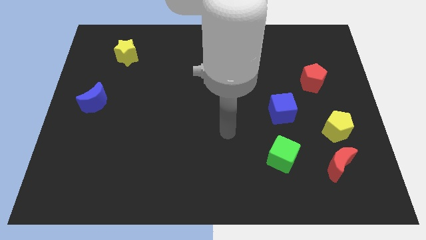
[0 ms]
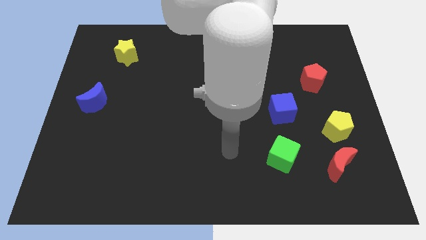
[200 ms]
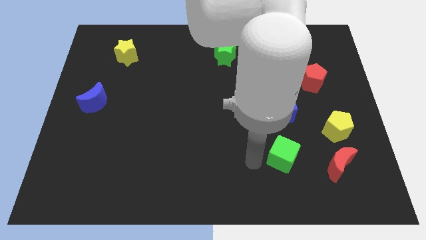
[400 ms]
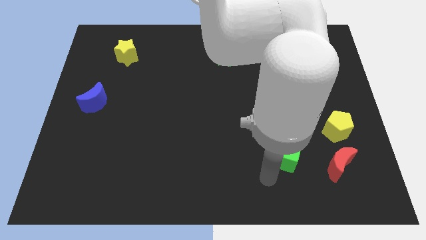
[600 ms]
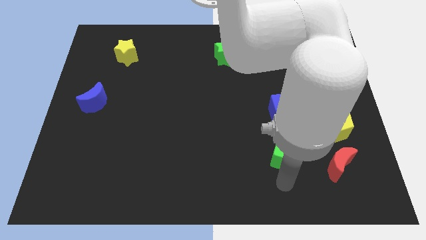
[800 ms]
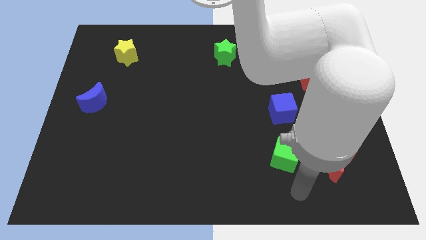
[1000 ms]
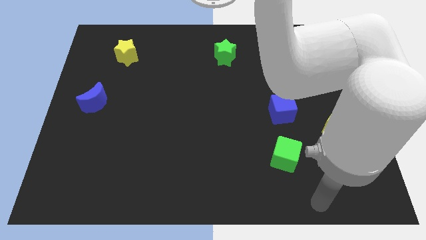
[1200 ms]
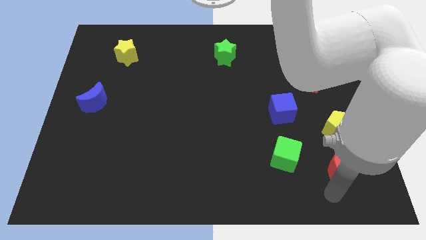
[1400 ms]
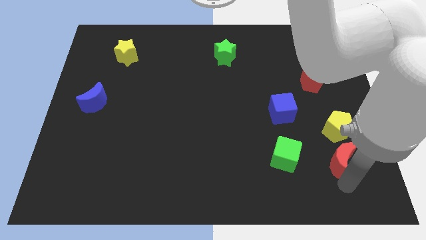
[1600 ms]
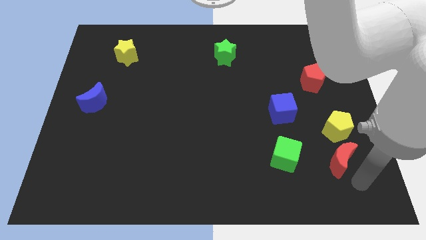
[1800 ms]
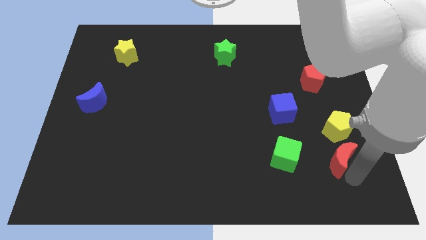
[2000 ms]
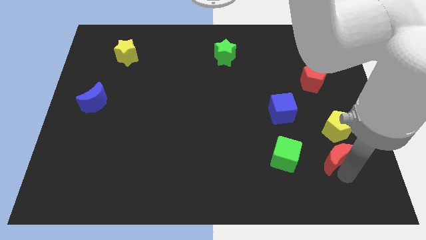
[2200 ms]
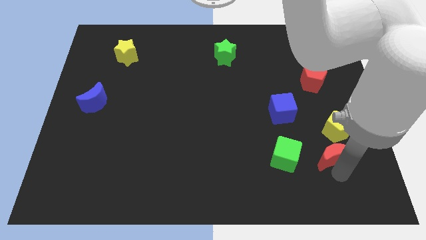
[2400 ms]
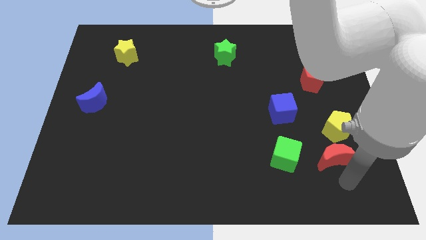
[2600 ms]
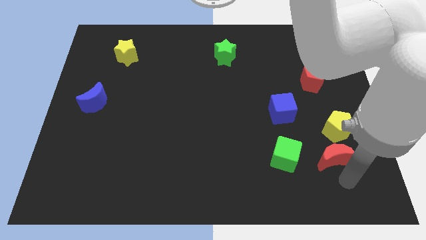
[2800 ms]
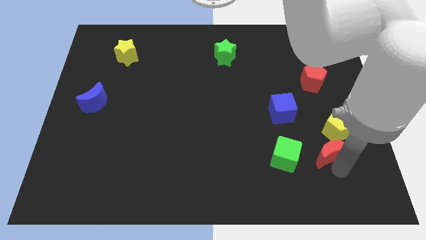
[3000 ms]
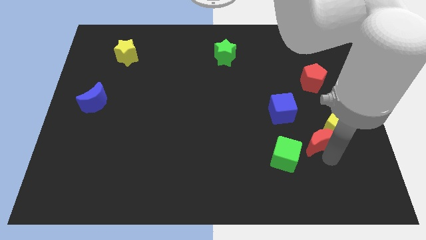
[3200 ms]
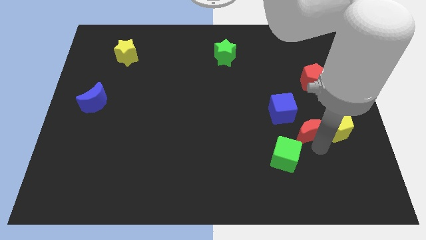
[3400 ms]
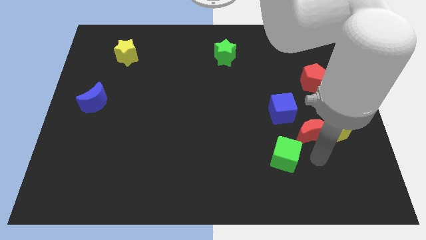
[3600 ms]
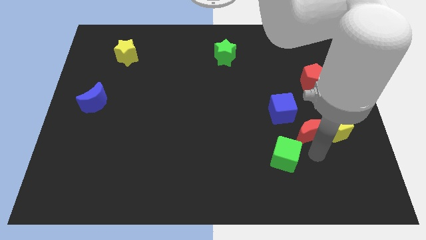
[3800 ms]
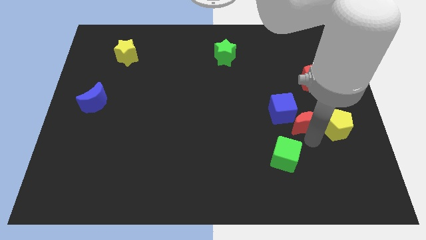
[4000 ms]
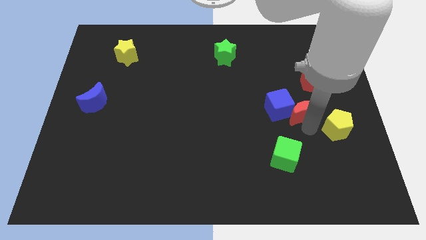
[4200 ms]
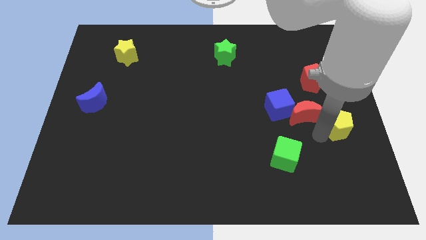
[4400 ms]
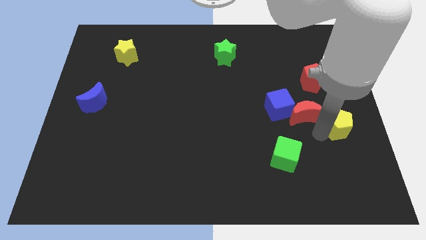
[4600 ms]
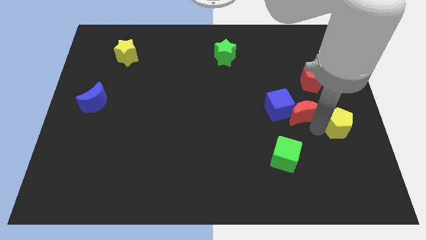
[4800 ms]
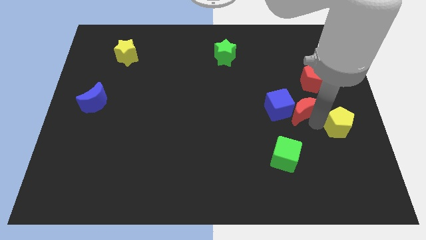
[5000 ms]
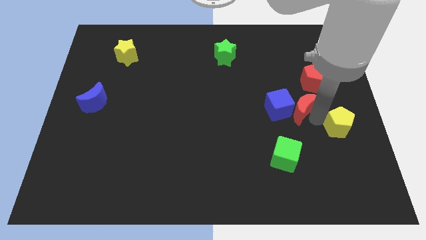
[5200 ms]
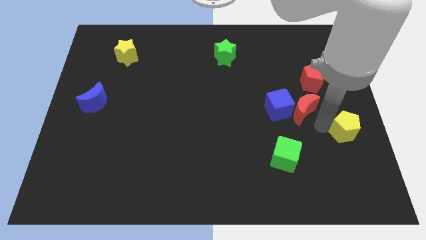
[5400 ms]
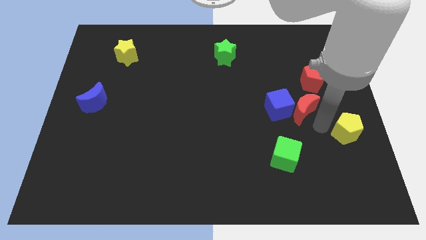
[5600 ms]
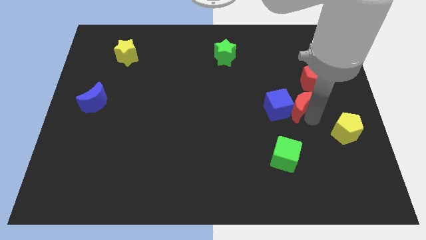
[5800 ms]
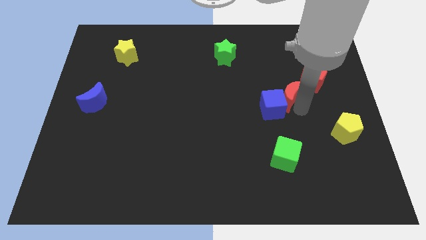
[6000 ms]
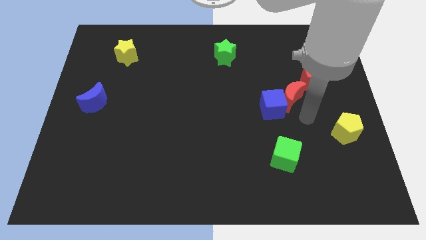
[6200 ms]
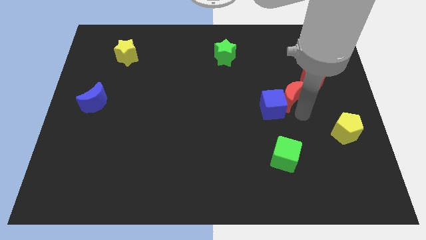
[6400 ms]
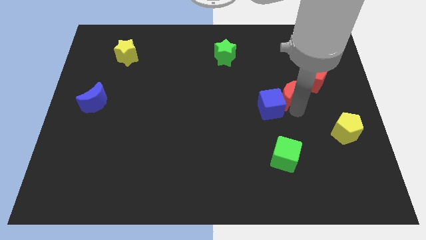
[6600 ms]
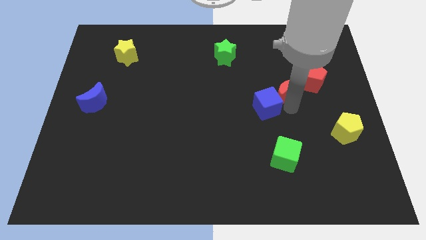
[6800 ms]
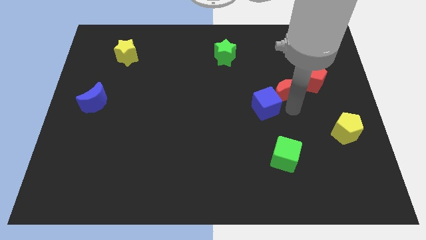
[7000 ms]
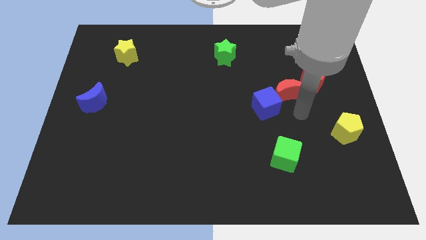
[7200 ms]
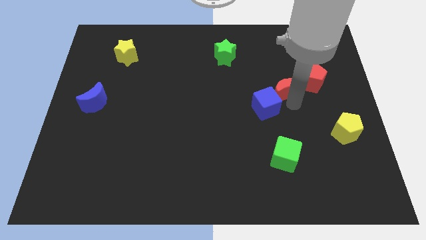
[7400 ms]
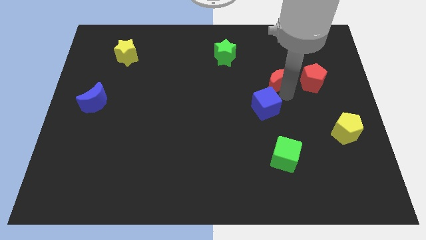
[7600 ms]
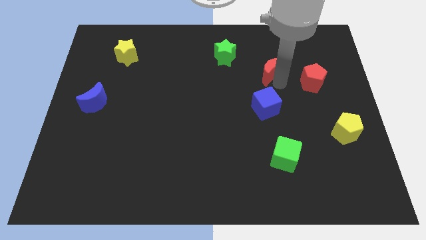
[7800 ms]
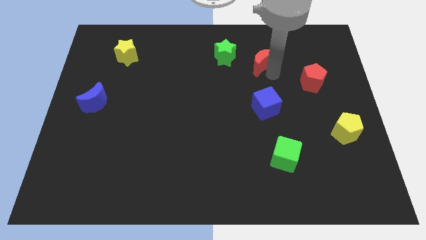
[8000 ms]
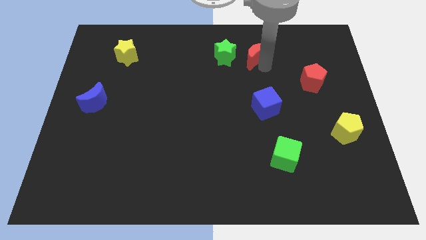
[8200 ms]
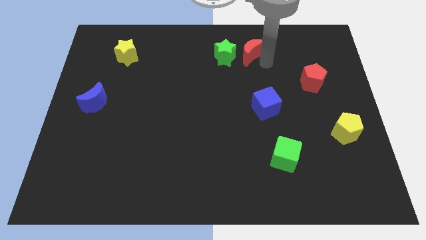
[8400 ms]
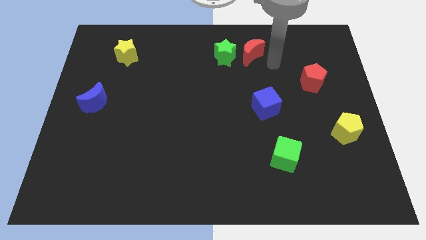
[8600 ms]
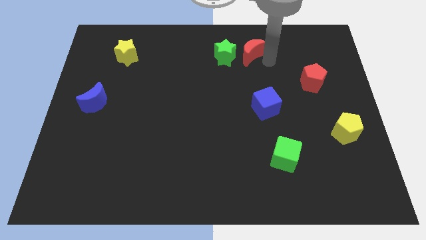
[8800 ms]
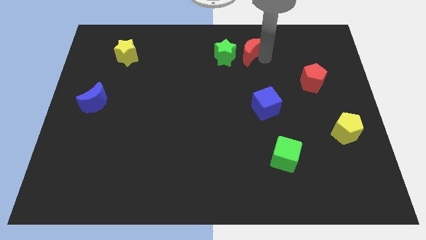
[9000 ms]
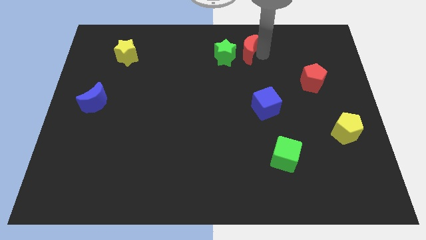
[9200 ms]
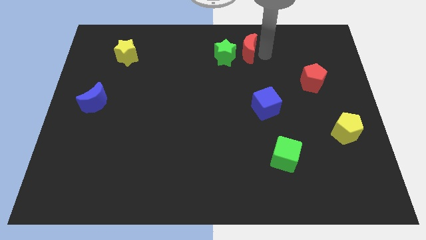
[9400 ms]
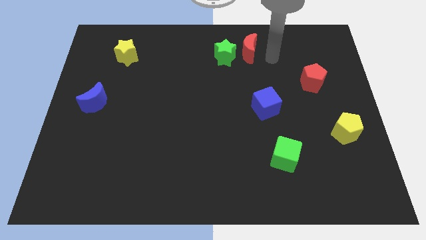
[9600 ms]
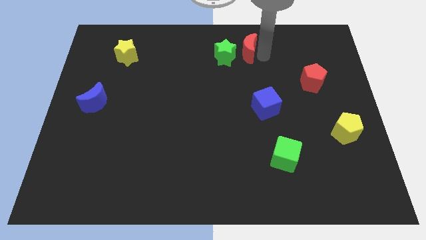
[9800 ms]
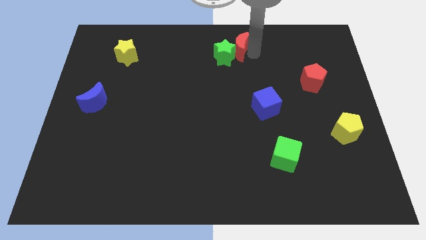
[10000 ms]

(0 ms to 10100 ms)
put the red moon to the top side

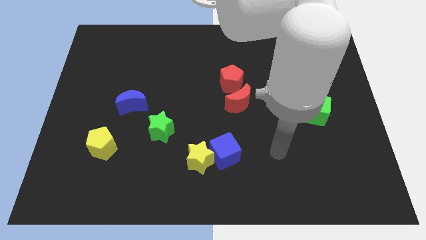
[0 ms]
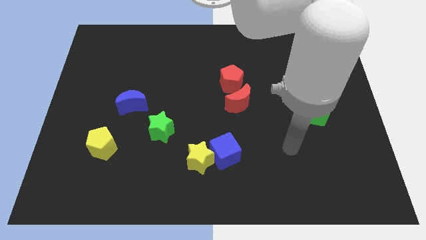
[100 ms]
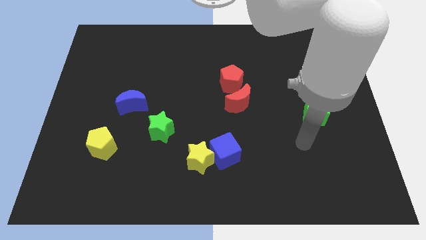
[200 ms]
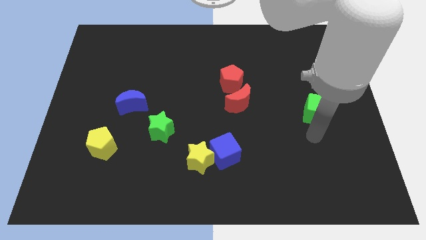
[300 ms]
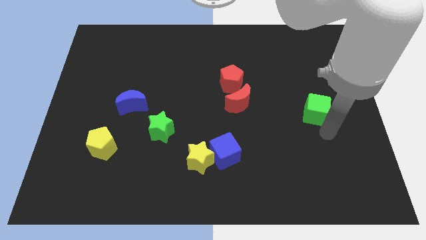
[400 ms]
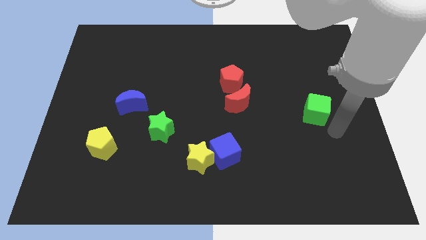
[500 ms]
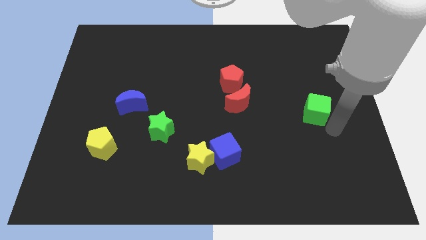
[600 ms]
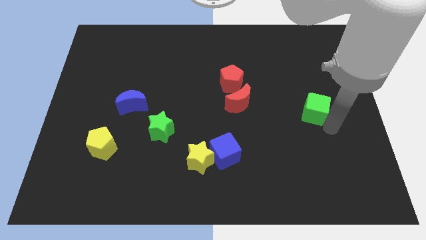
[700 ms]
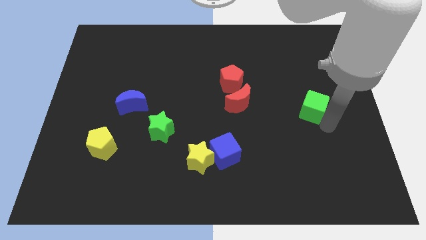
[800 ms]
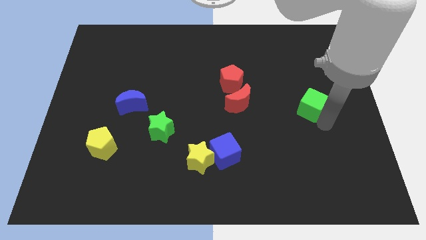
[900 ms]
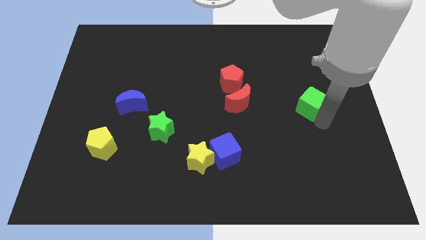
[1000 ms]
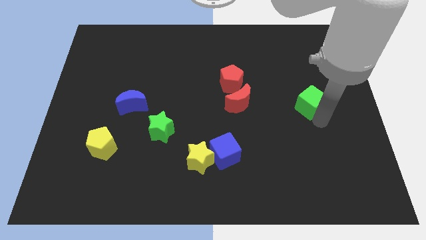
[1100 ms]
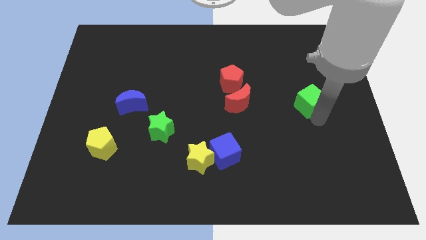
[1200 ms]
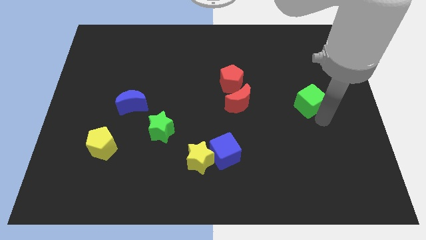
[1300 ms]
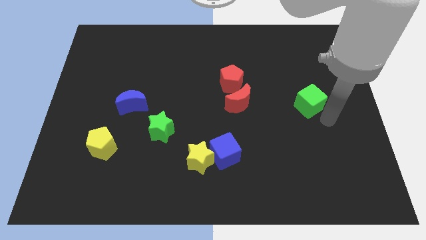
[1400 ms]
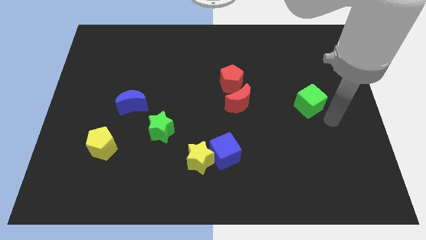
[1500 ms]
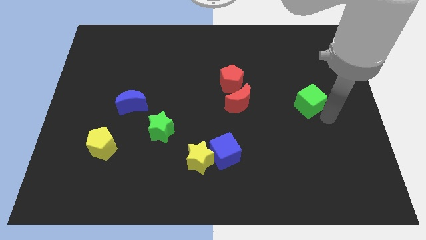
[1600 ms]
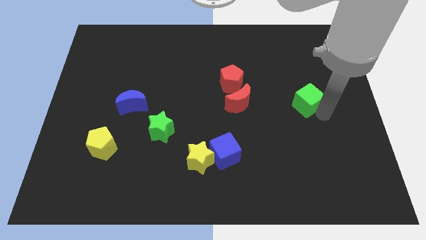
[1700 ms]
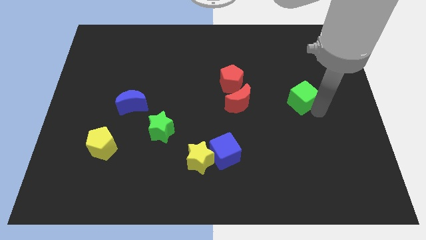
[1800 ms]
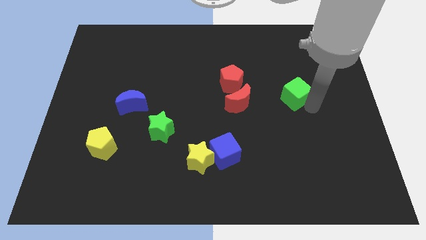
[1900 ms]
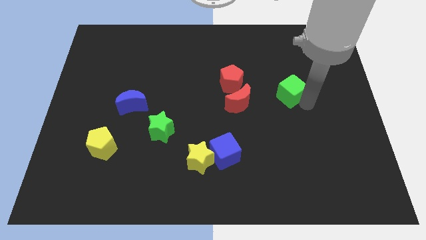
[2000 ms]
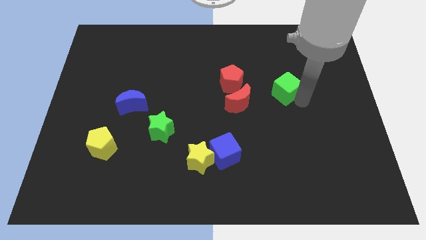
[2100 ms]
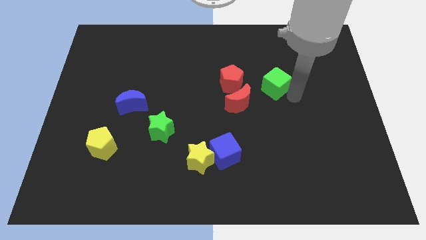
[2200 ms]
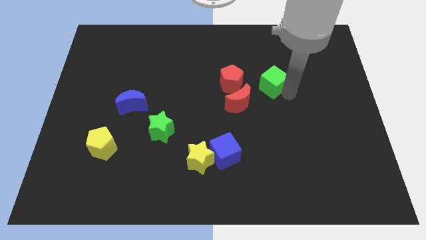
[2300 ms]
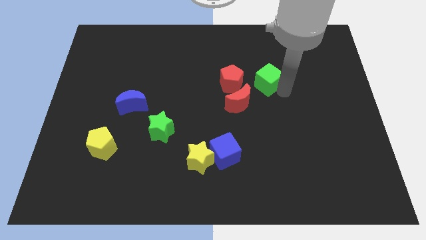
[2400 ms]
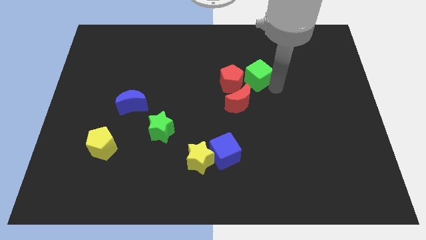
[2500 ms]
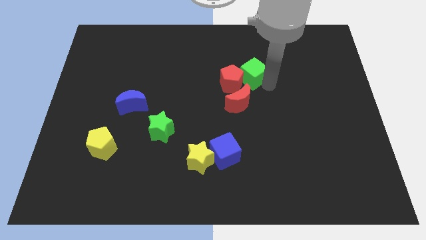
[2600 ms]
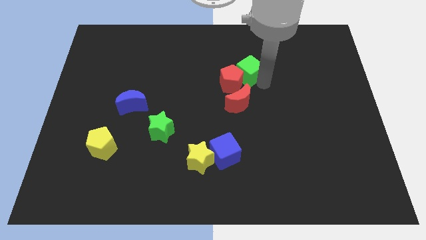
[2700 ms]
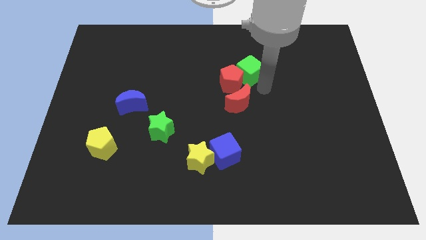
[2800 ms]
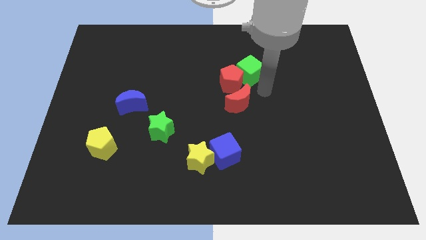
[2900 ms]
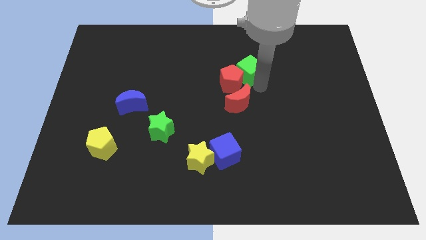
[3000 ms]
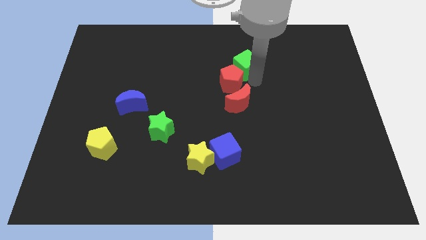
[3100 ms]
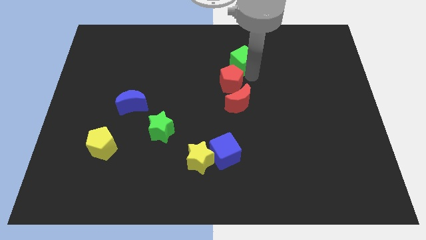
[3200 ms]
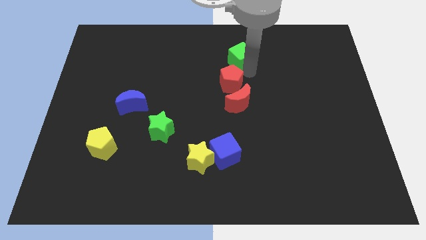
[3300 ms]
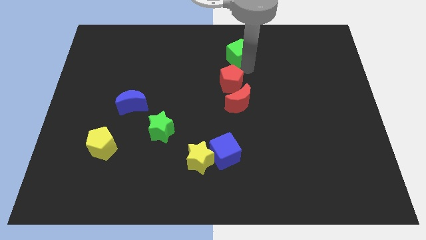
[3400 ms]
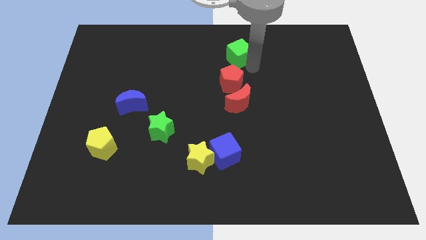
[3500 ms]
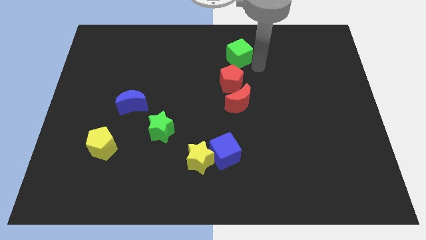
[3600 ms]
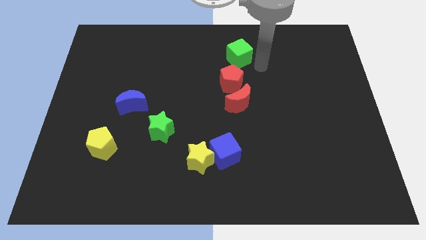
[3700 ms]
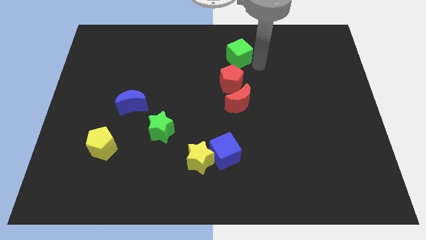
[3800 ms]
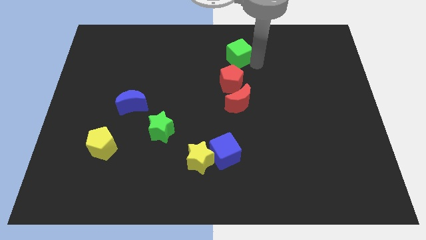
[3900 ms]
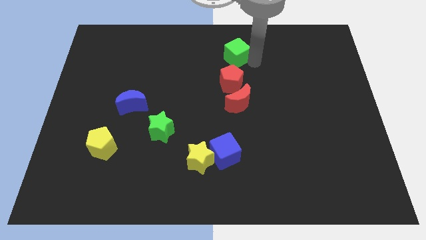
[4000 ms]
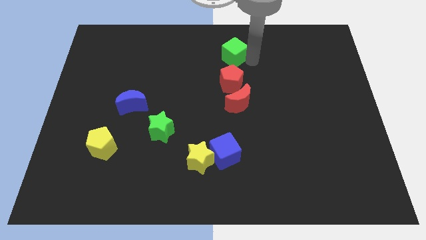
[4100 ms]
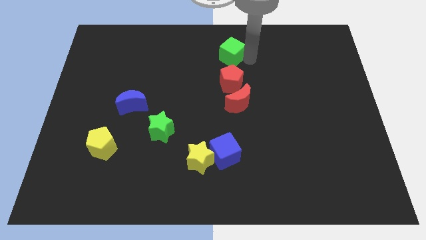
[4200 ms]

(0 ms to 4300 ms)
move the green cube to the top side
